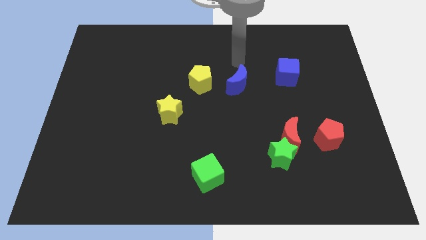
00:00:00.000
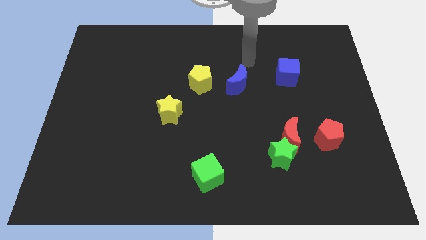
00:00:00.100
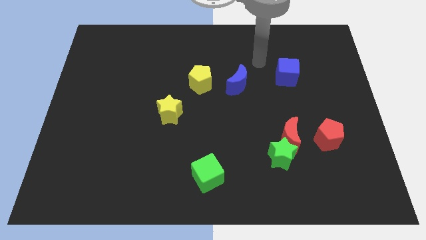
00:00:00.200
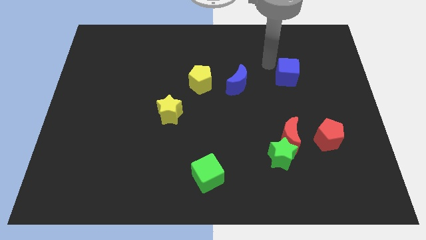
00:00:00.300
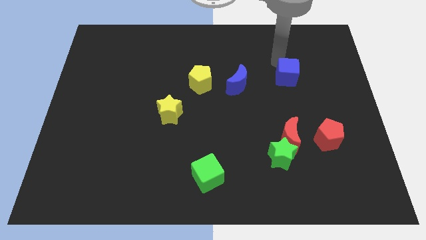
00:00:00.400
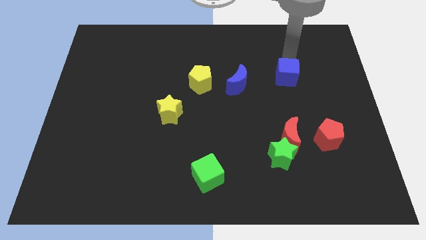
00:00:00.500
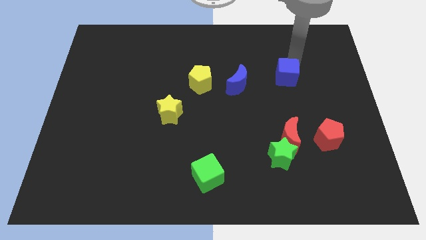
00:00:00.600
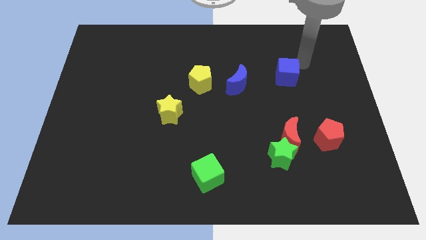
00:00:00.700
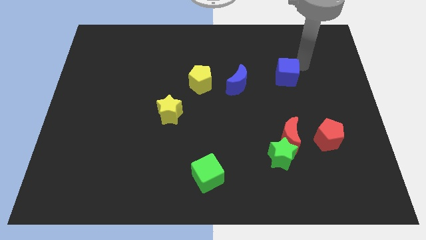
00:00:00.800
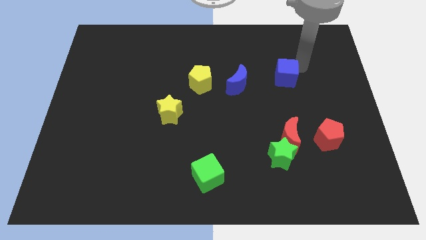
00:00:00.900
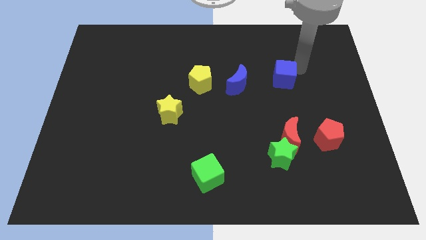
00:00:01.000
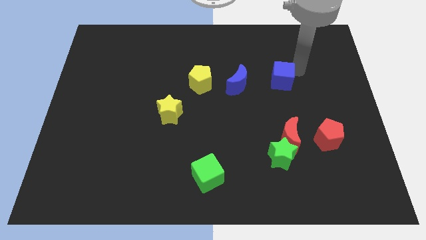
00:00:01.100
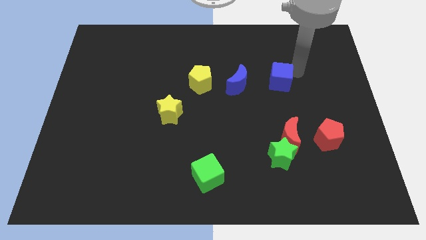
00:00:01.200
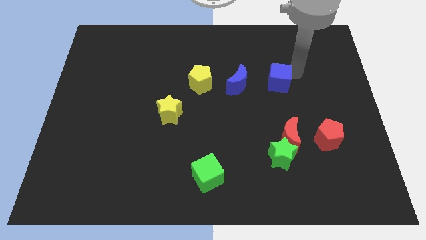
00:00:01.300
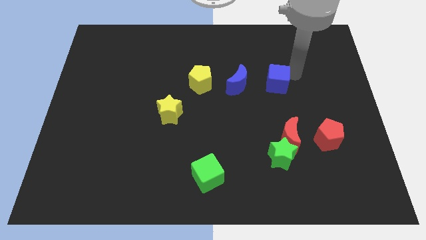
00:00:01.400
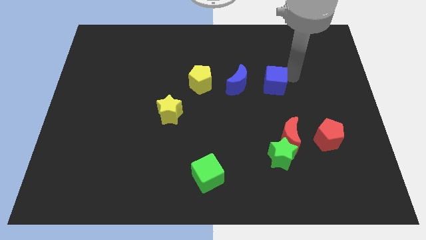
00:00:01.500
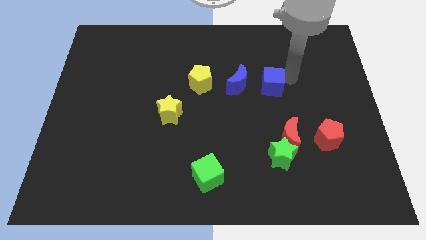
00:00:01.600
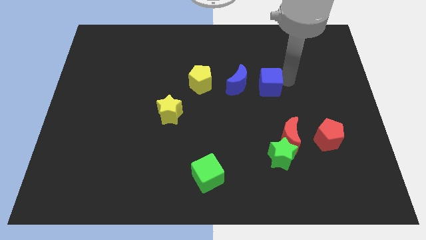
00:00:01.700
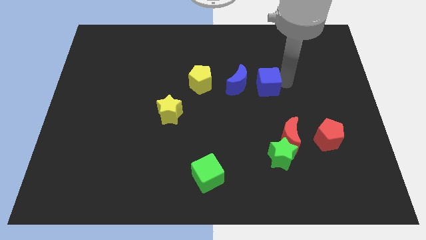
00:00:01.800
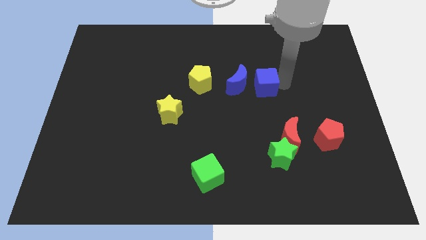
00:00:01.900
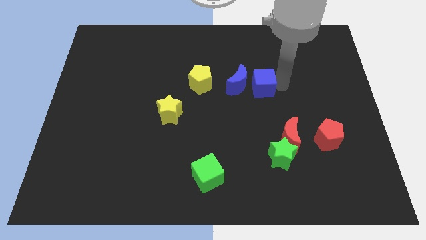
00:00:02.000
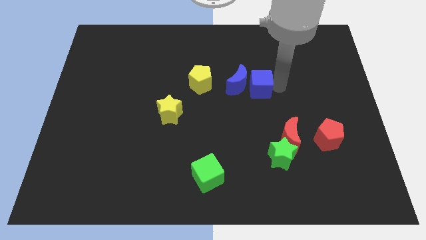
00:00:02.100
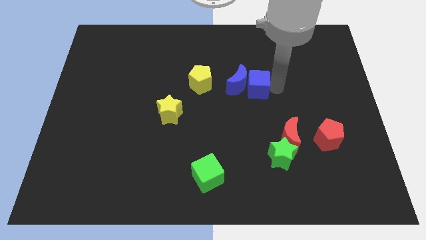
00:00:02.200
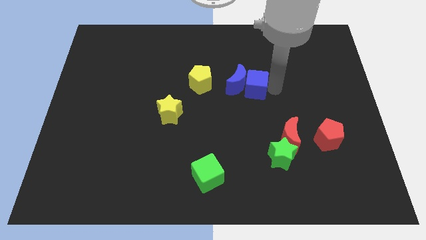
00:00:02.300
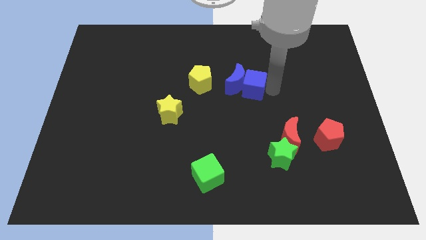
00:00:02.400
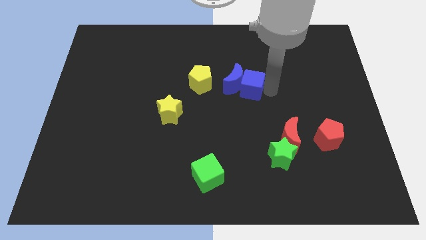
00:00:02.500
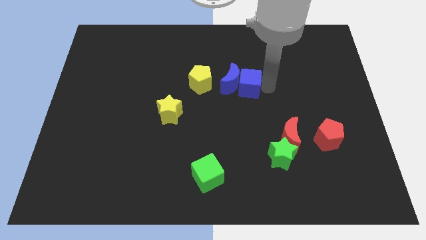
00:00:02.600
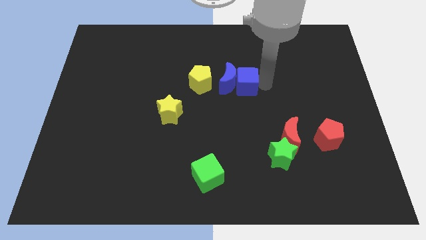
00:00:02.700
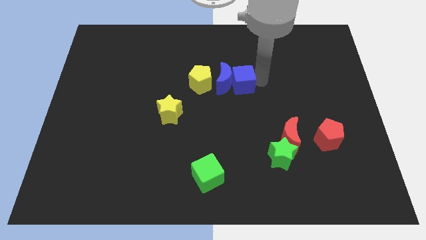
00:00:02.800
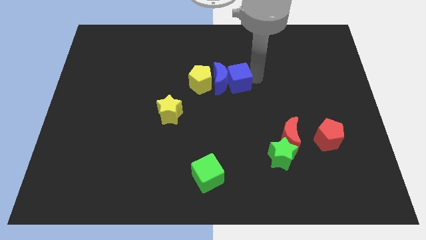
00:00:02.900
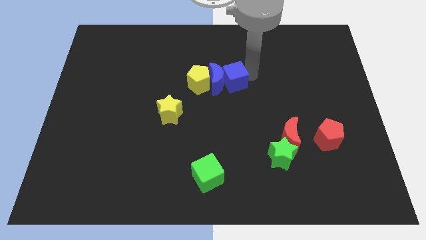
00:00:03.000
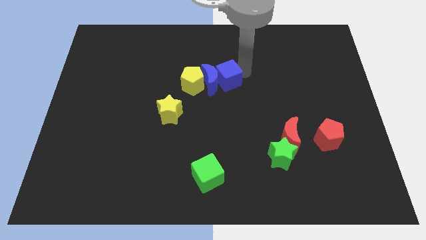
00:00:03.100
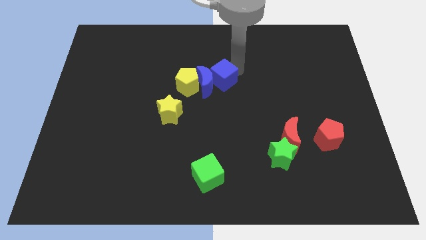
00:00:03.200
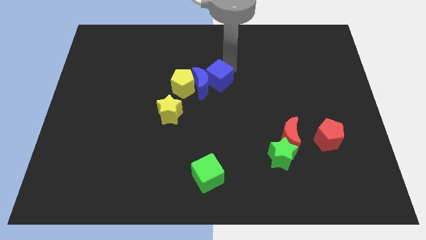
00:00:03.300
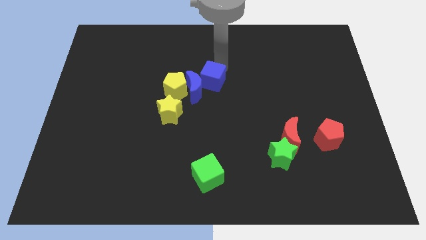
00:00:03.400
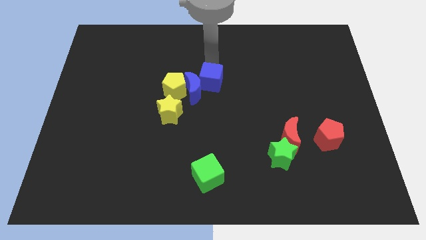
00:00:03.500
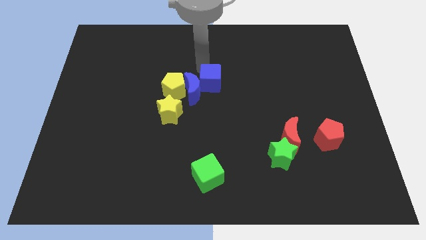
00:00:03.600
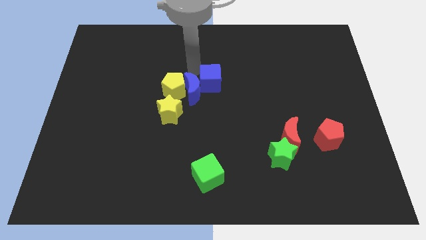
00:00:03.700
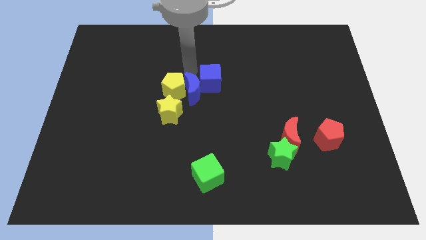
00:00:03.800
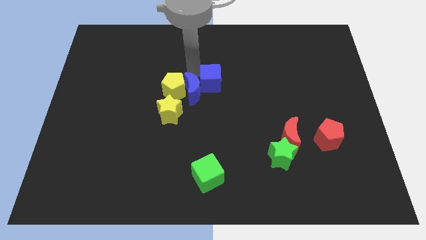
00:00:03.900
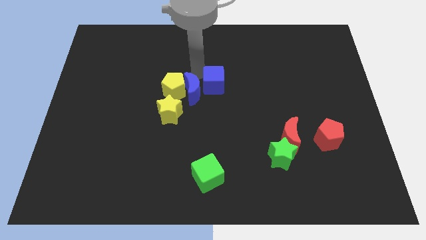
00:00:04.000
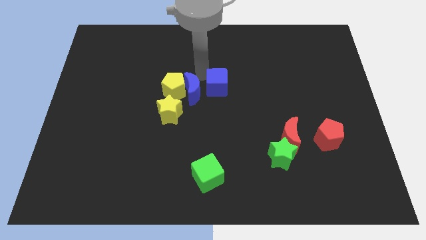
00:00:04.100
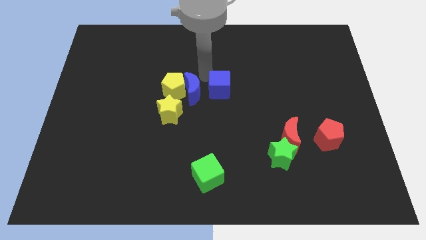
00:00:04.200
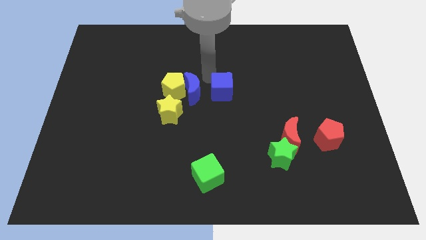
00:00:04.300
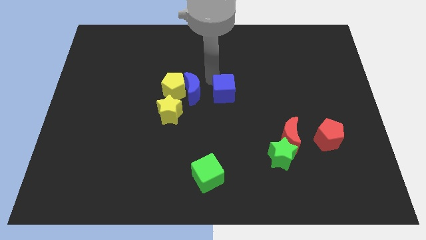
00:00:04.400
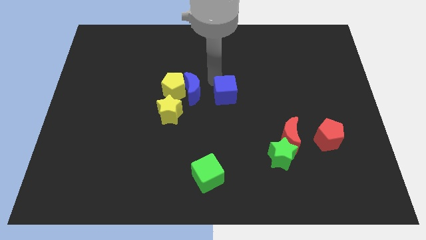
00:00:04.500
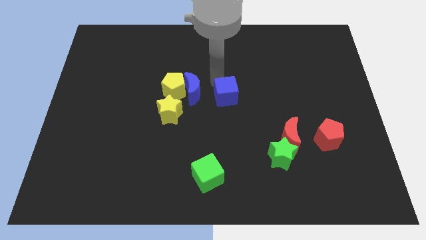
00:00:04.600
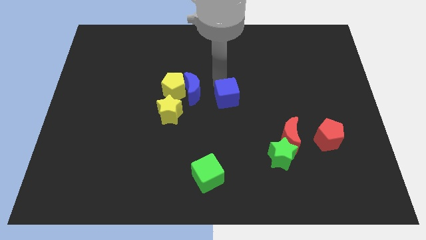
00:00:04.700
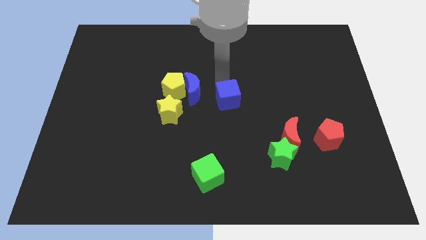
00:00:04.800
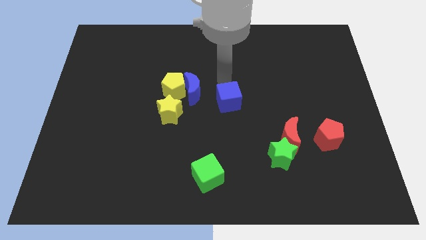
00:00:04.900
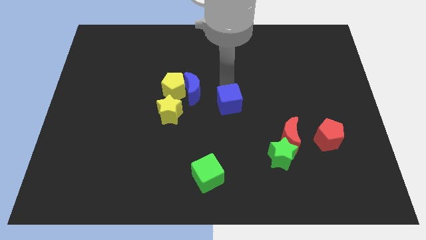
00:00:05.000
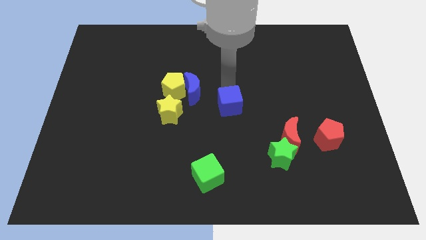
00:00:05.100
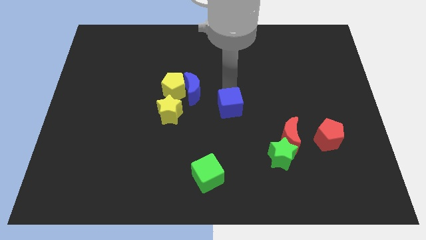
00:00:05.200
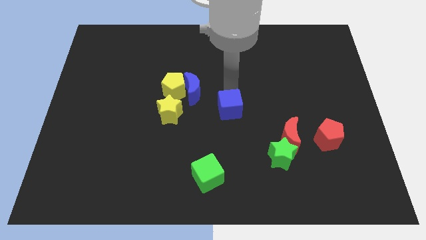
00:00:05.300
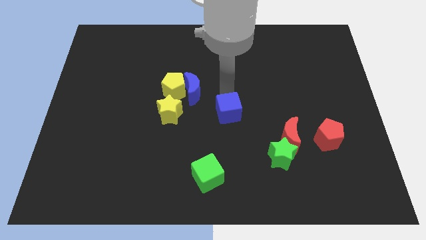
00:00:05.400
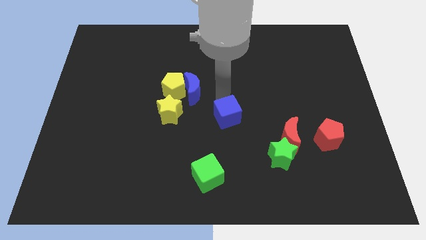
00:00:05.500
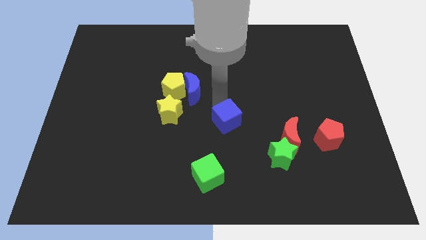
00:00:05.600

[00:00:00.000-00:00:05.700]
move the blue cube to the top side of the green cube

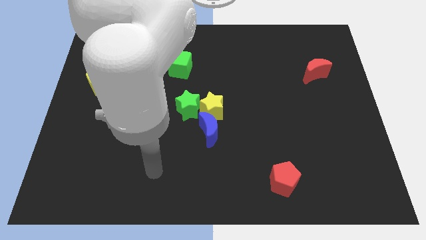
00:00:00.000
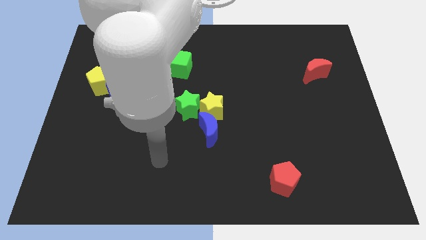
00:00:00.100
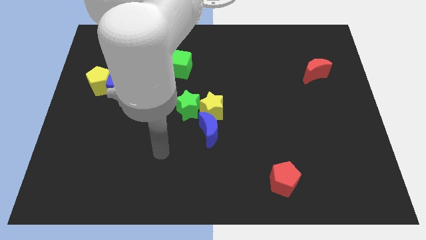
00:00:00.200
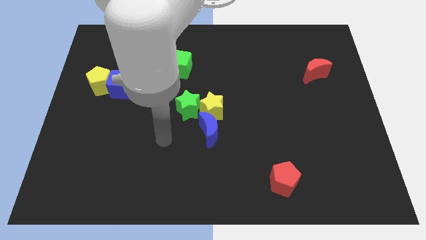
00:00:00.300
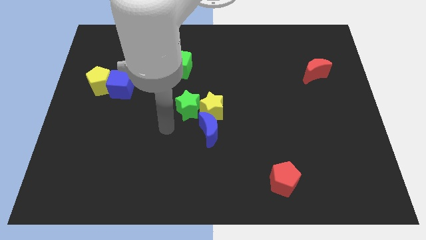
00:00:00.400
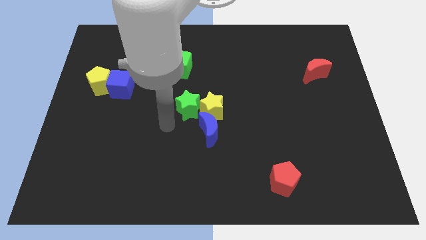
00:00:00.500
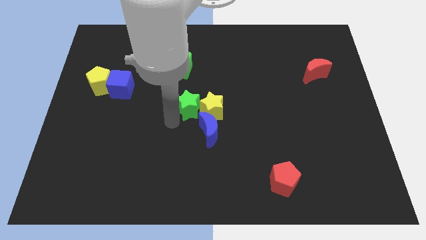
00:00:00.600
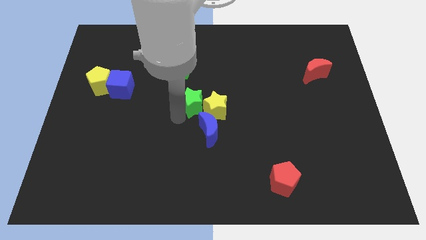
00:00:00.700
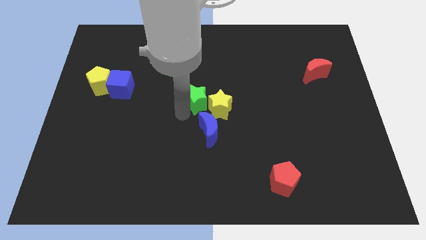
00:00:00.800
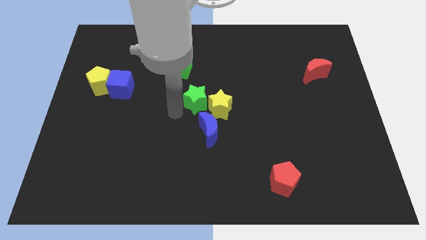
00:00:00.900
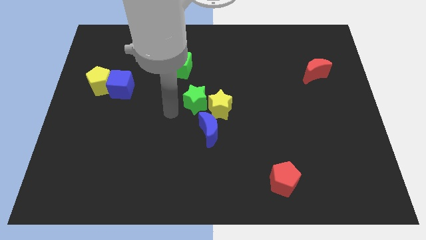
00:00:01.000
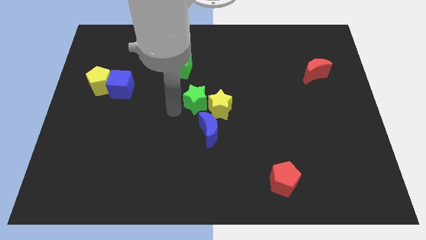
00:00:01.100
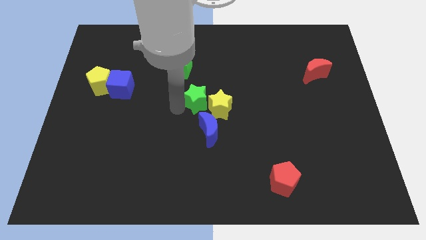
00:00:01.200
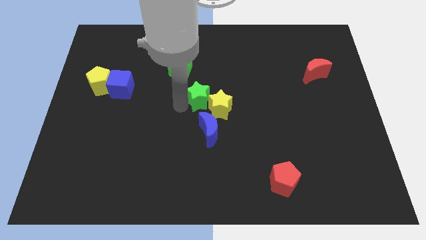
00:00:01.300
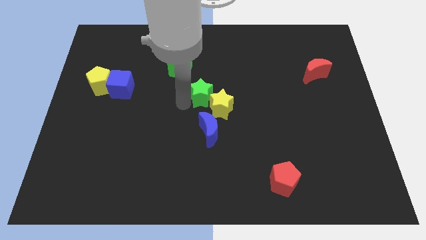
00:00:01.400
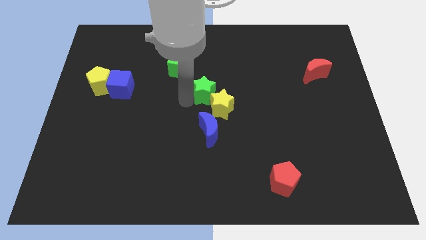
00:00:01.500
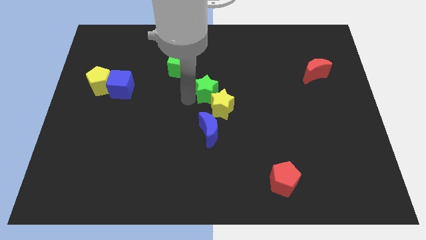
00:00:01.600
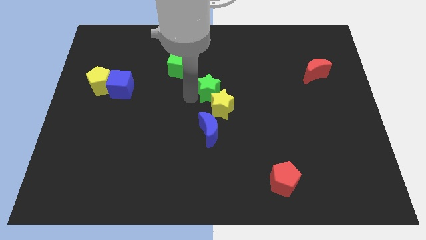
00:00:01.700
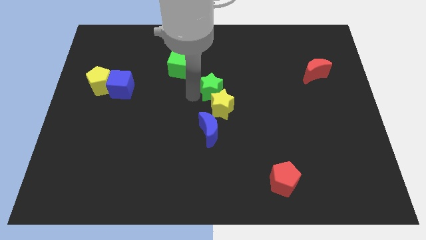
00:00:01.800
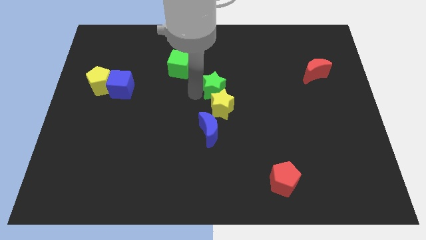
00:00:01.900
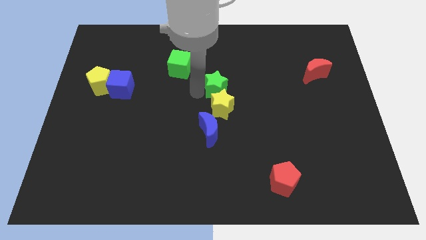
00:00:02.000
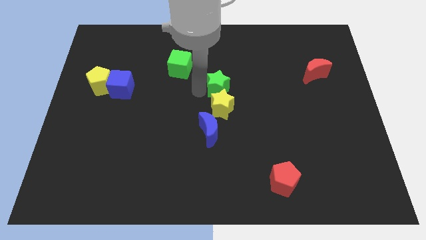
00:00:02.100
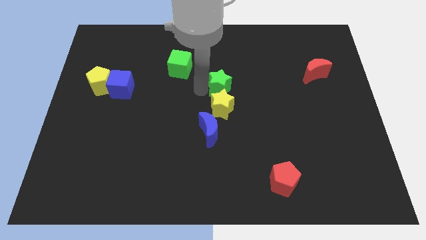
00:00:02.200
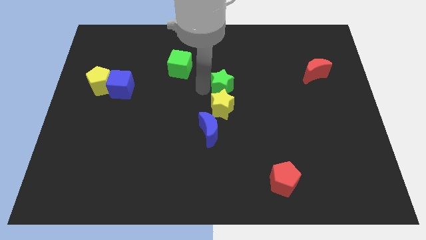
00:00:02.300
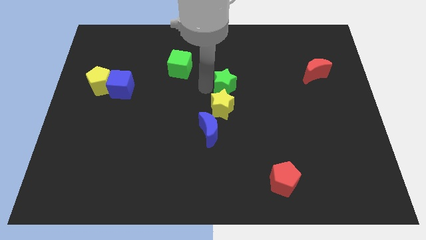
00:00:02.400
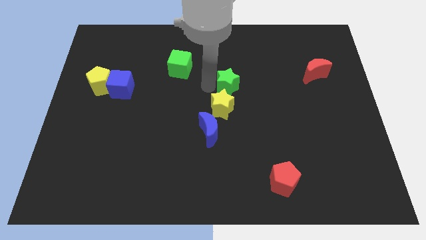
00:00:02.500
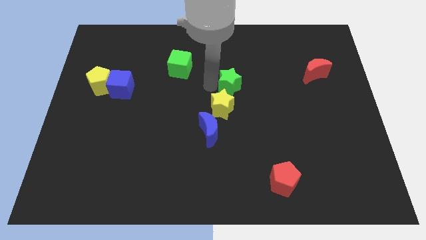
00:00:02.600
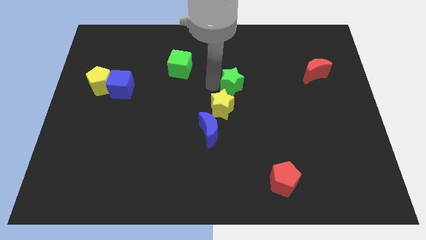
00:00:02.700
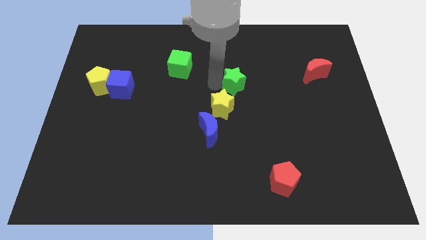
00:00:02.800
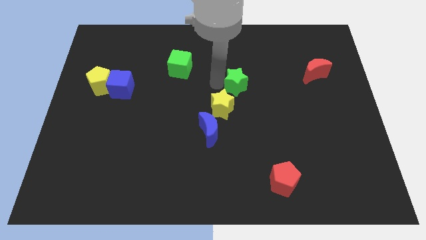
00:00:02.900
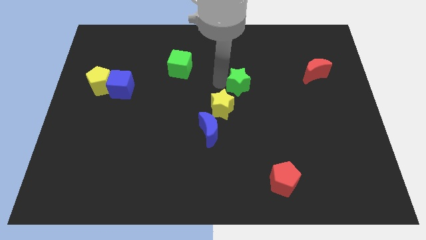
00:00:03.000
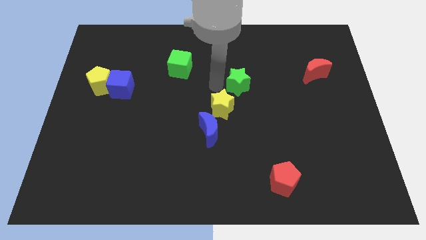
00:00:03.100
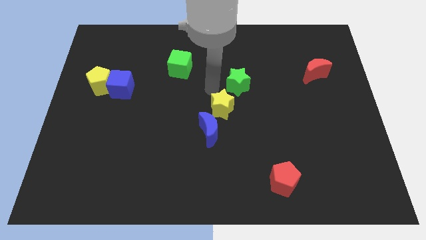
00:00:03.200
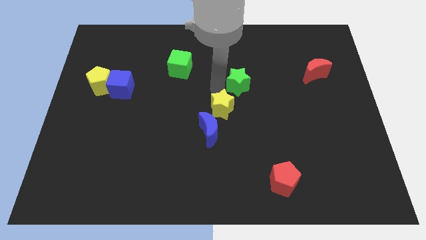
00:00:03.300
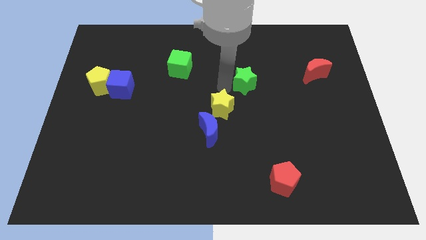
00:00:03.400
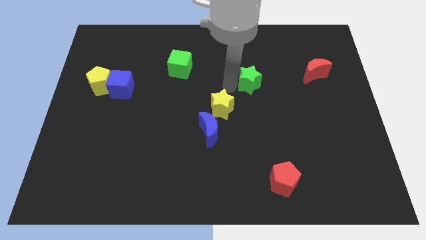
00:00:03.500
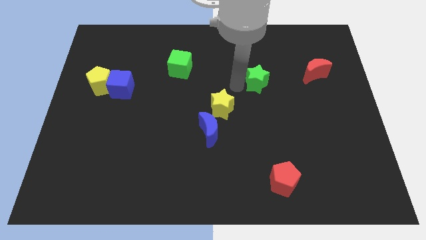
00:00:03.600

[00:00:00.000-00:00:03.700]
push the green star to the left of the red moon
